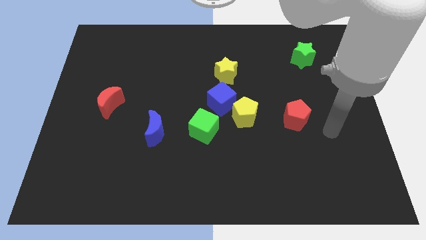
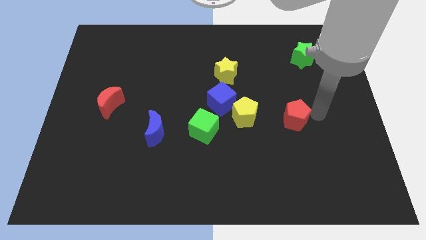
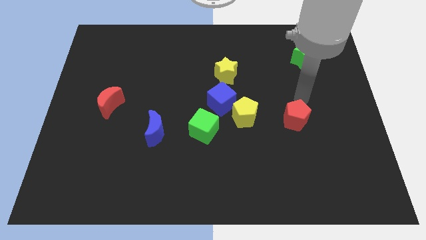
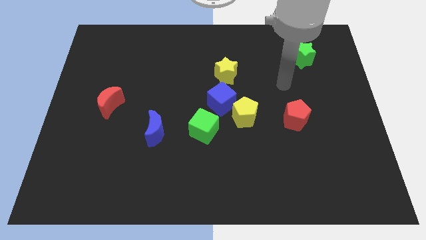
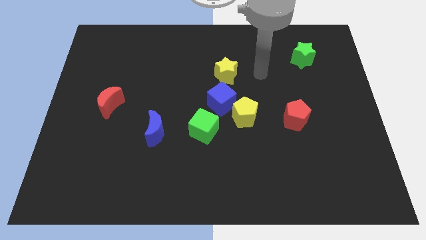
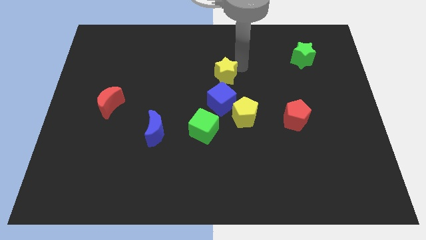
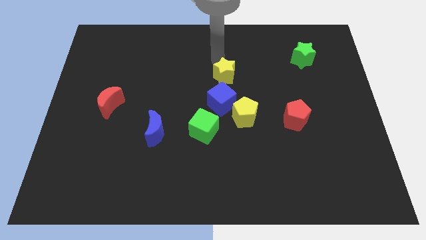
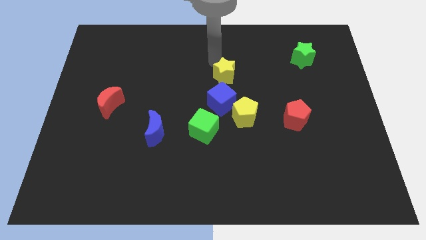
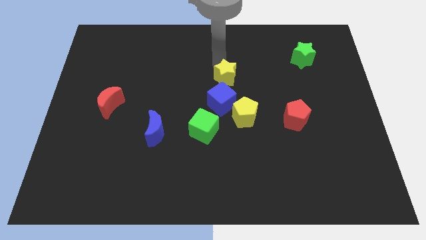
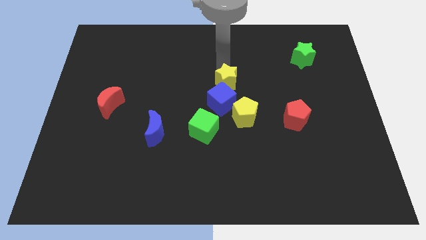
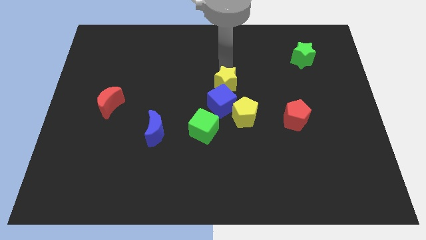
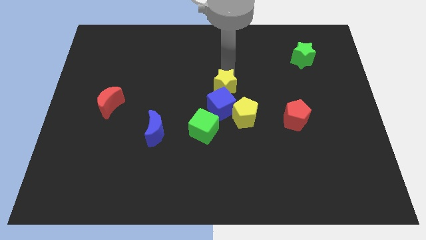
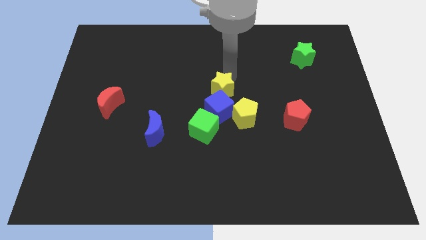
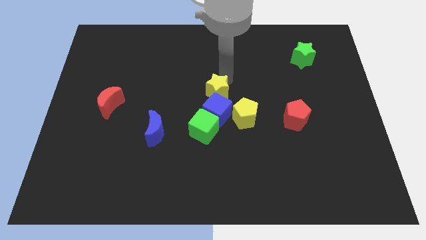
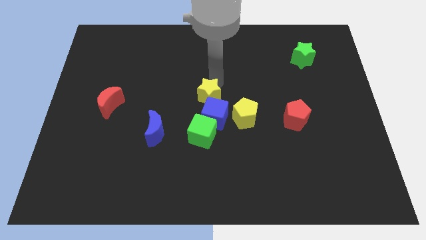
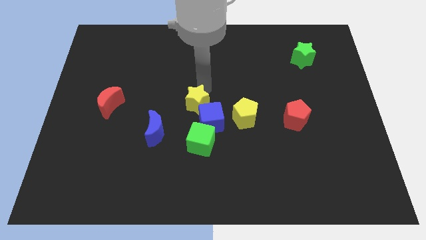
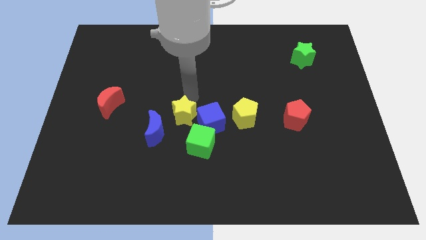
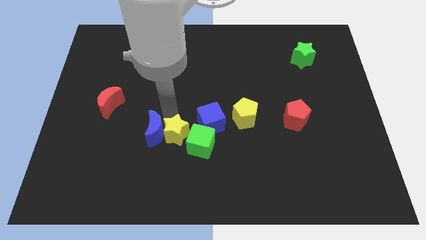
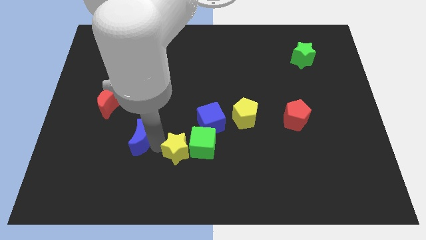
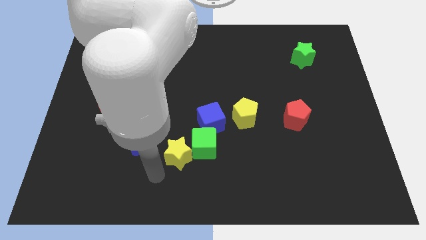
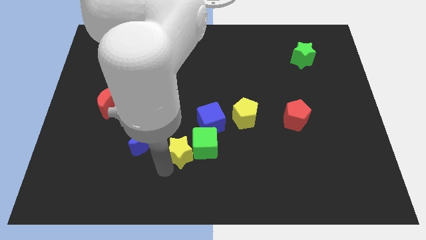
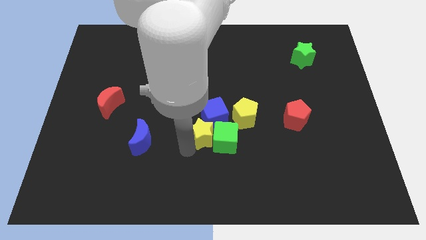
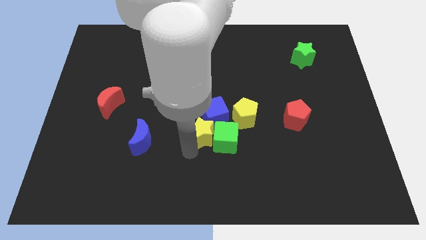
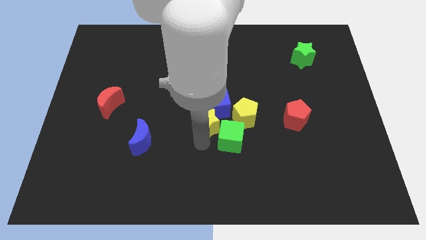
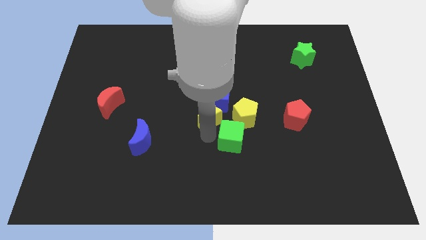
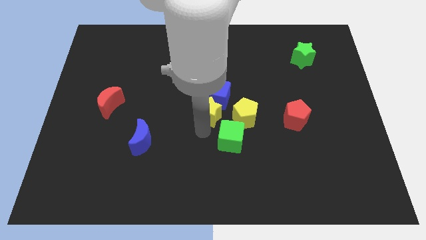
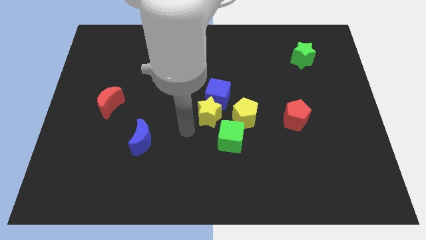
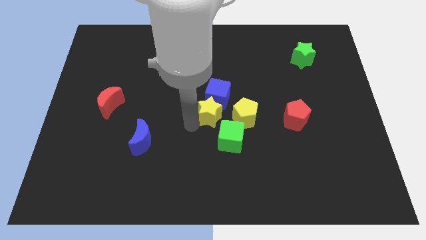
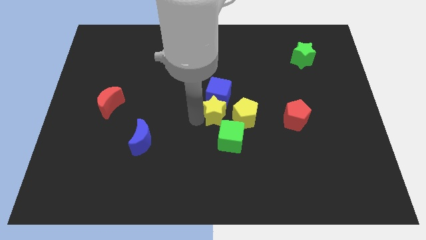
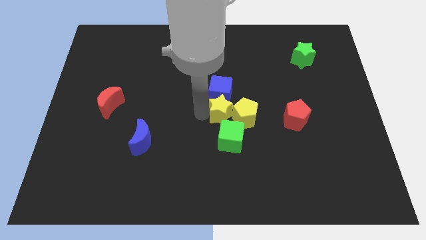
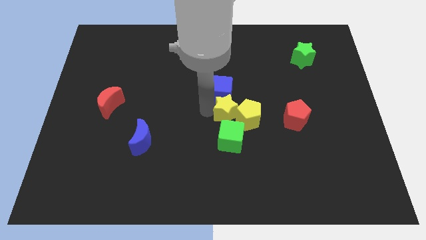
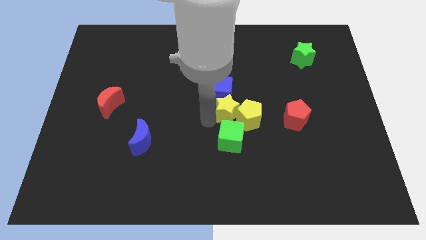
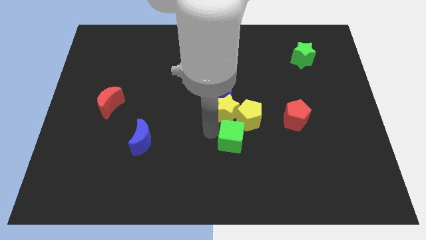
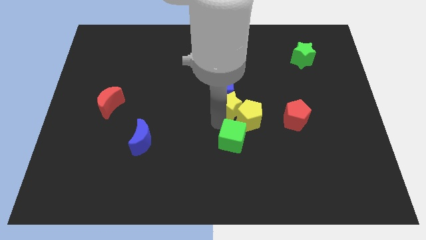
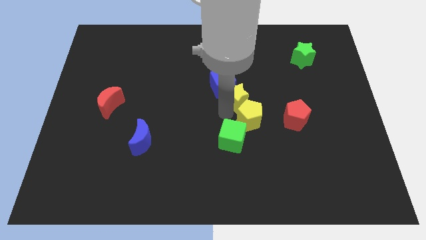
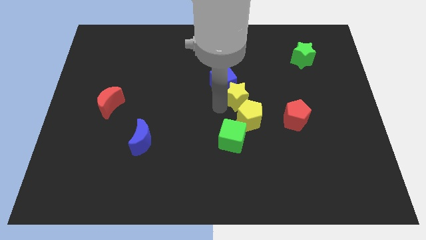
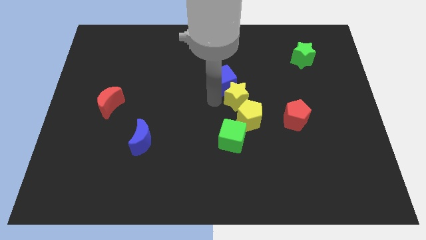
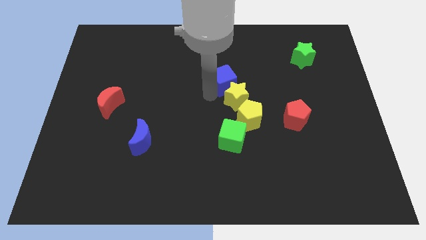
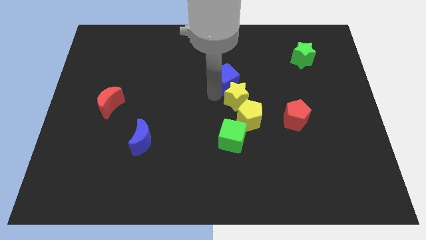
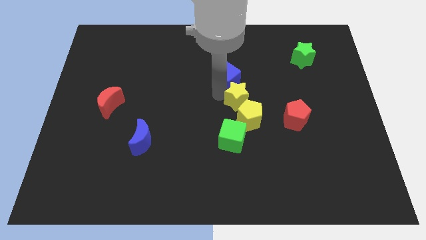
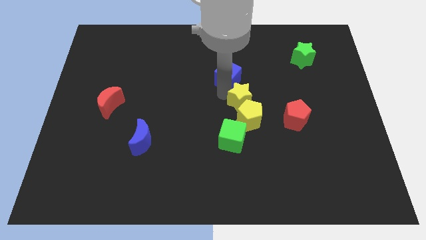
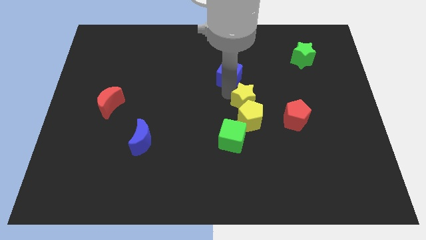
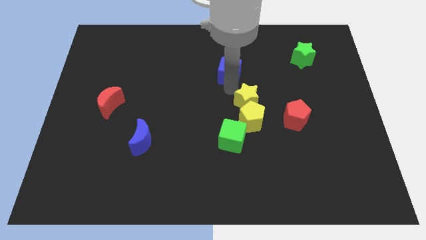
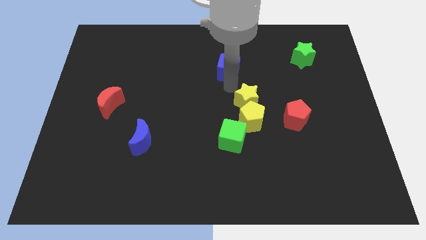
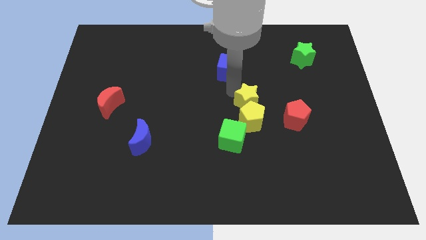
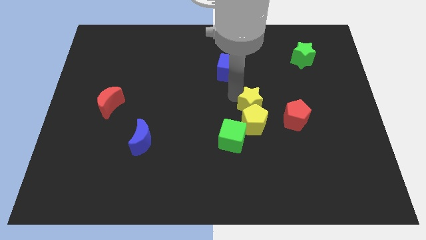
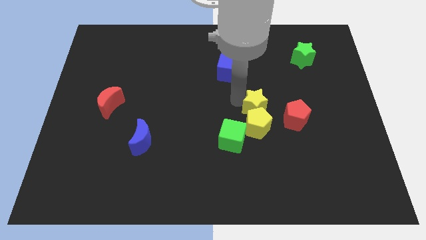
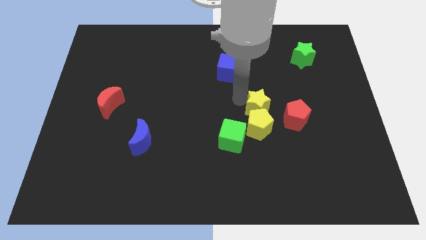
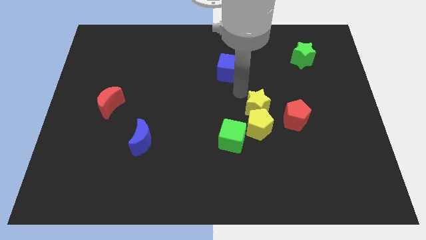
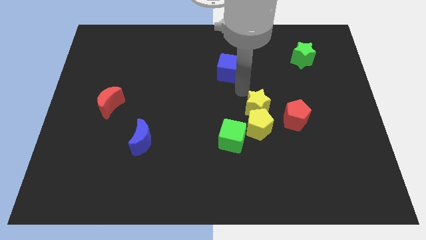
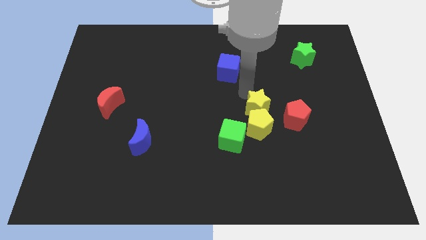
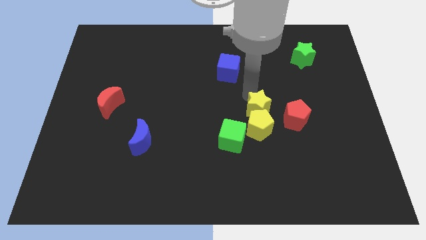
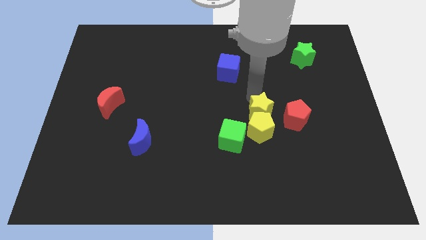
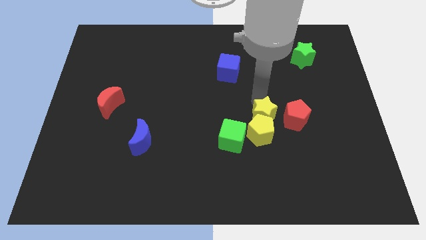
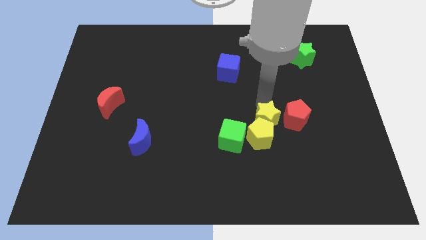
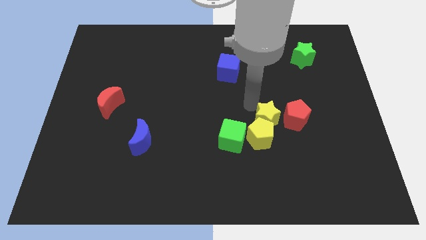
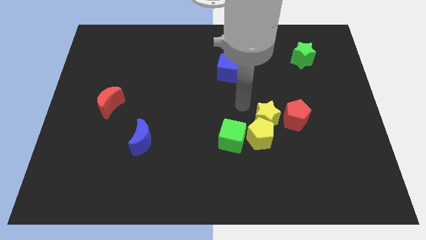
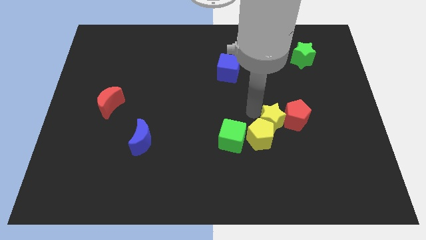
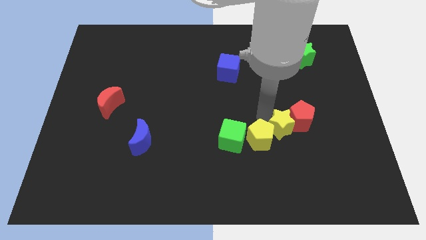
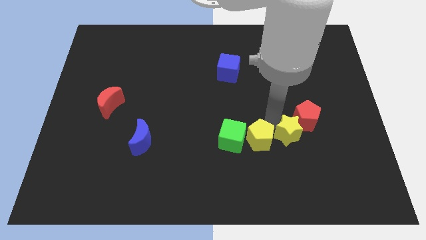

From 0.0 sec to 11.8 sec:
push the yellow star downwards and then right

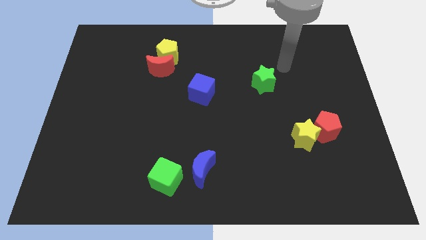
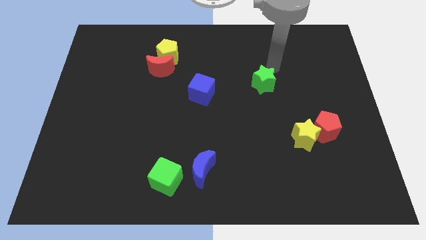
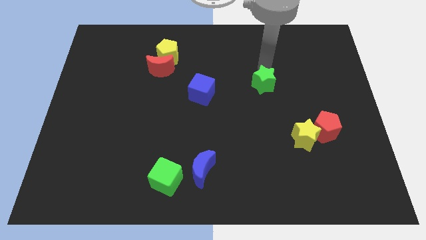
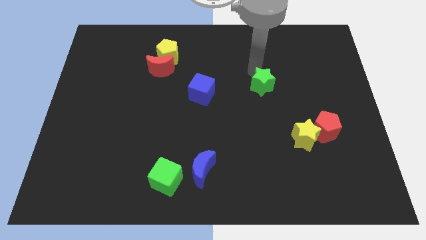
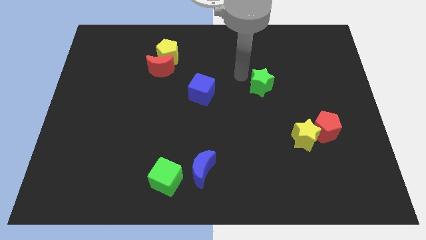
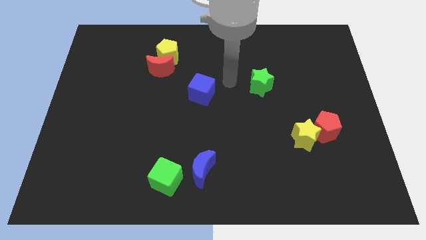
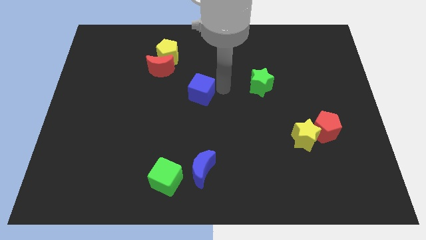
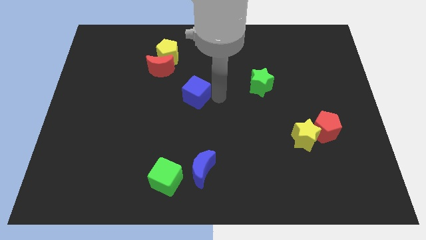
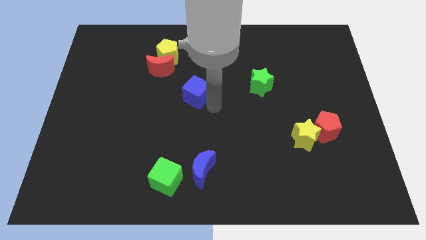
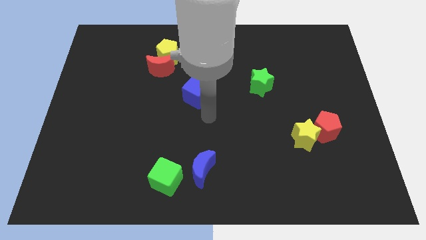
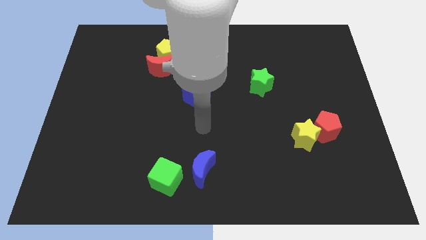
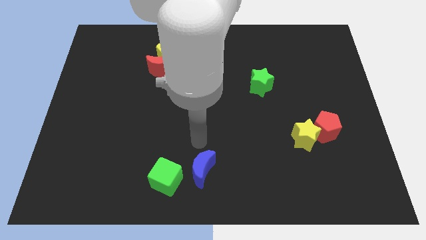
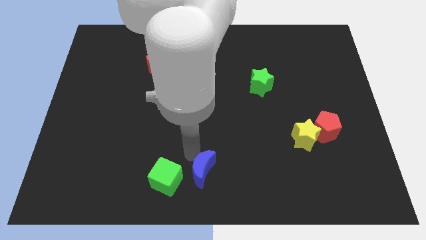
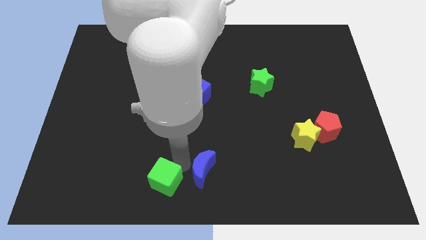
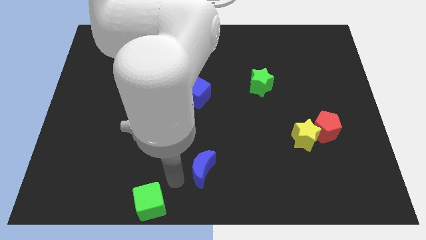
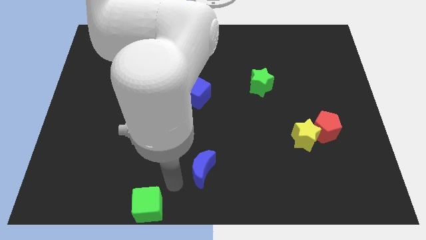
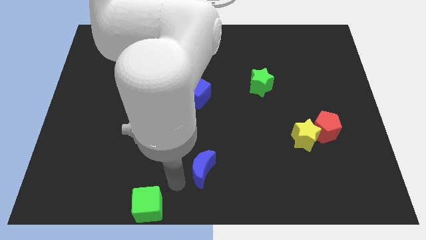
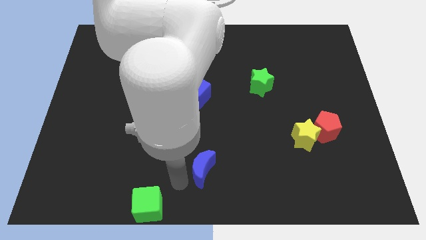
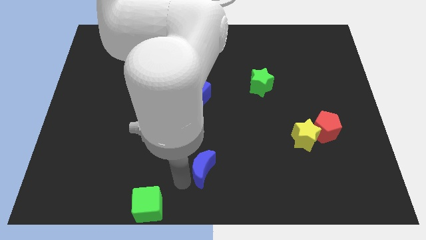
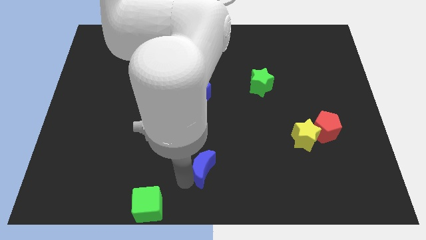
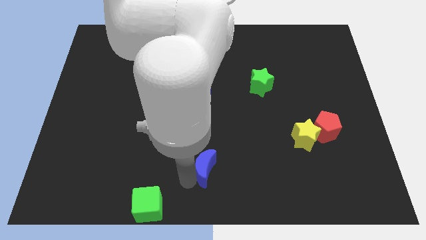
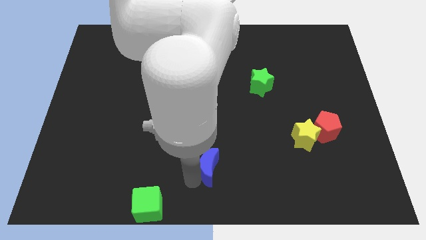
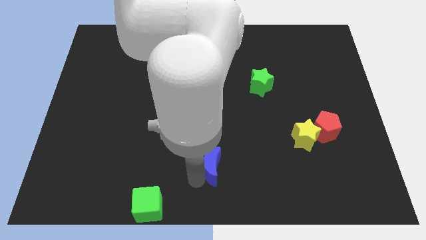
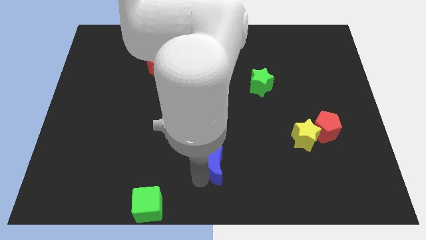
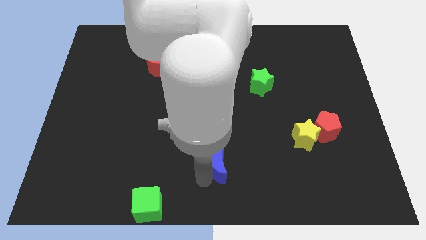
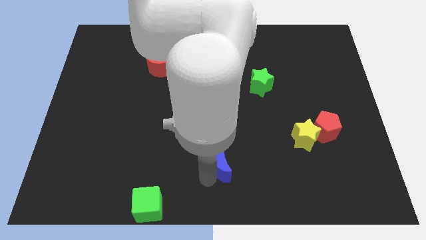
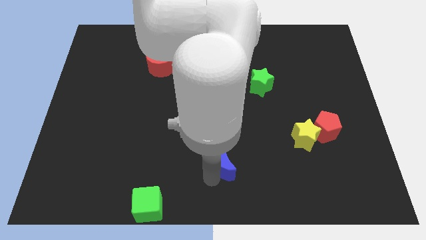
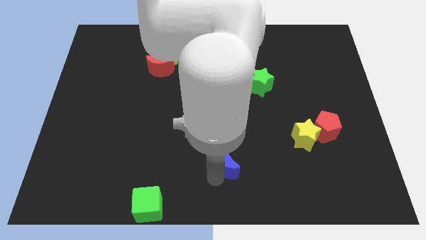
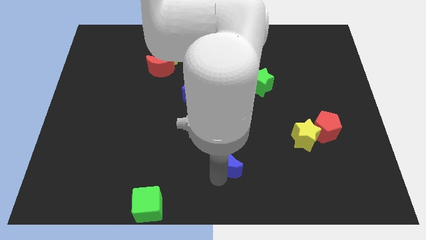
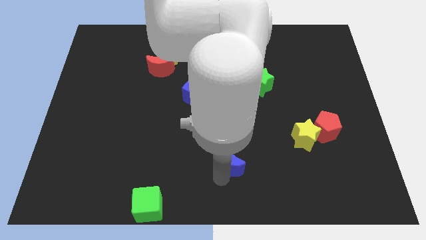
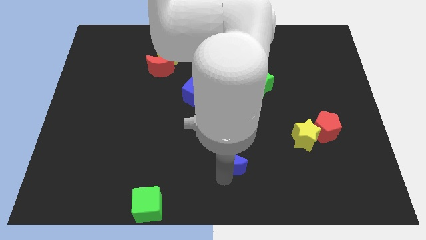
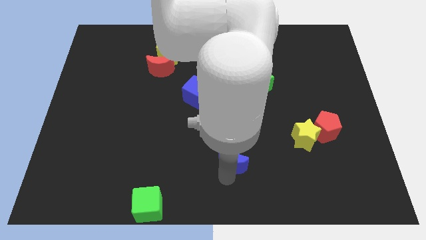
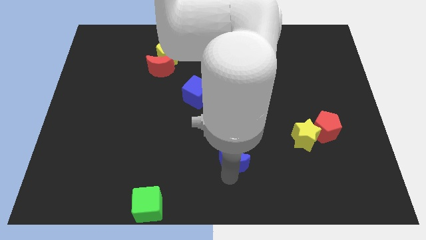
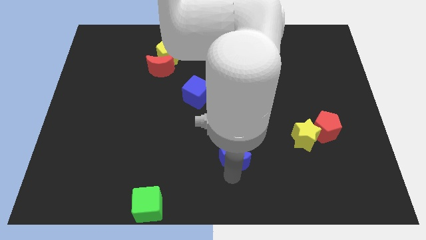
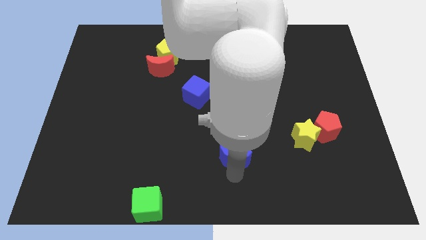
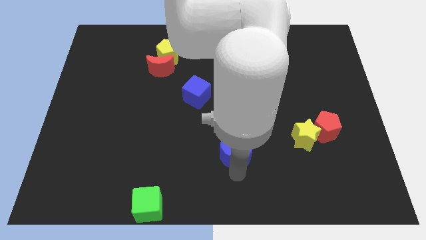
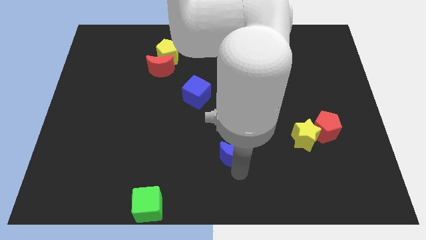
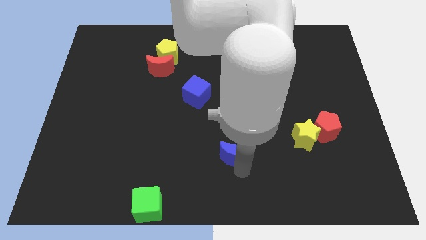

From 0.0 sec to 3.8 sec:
push the blue moon a little bit upwards and right
